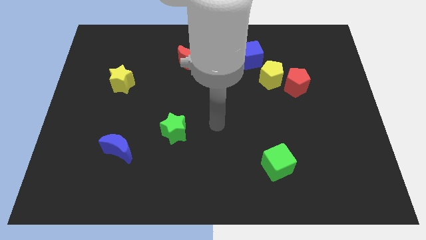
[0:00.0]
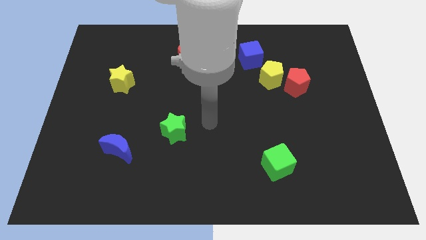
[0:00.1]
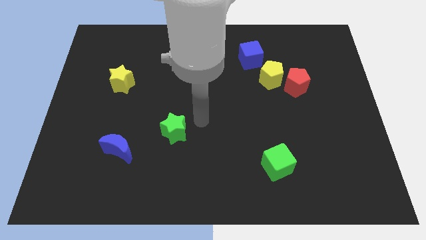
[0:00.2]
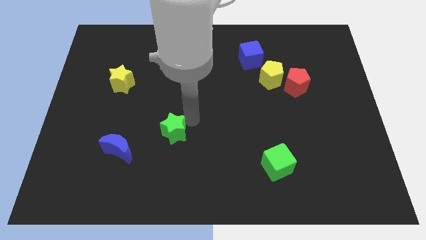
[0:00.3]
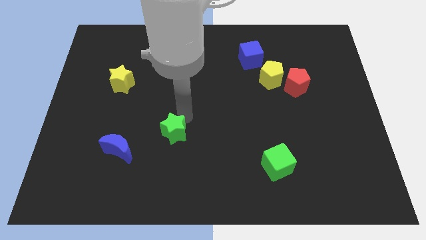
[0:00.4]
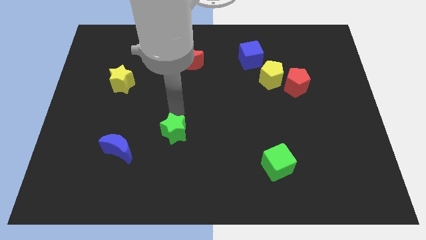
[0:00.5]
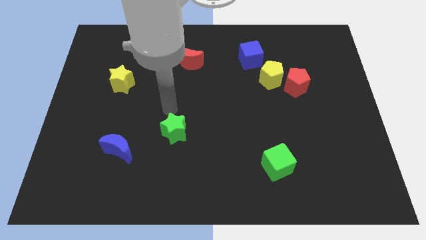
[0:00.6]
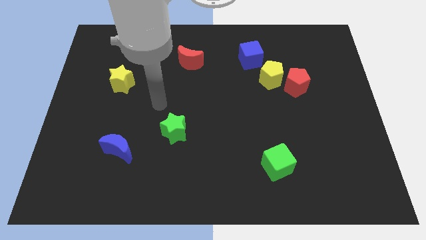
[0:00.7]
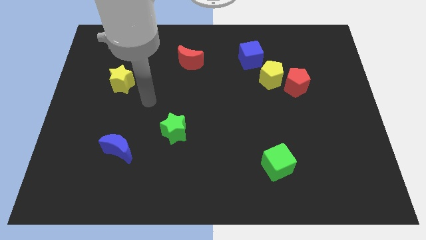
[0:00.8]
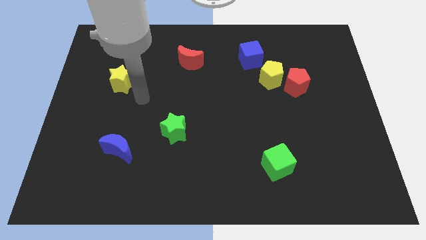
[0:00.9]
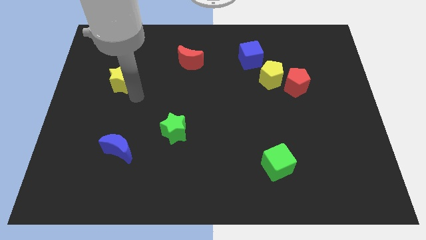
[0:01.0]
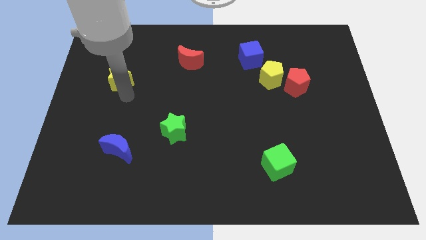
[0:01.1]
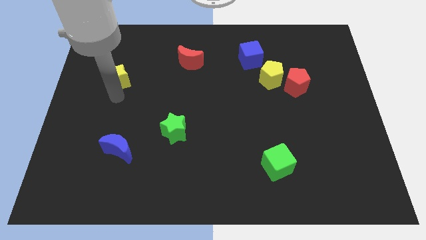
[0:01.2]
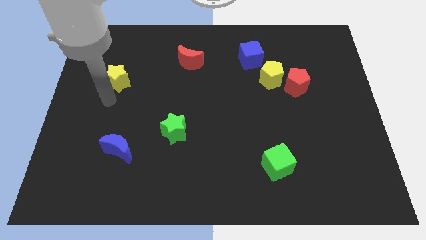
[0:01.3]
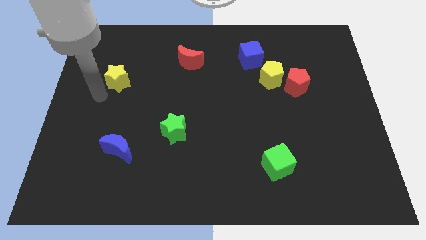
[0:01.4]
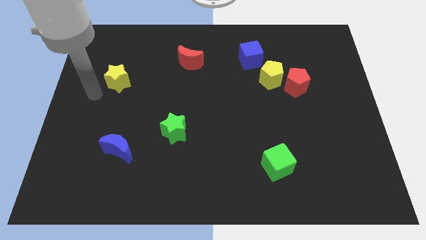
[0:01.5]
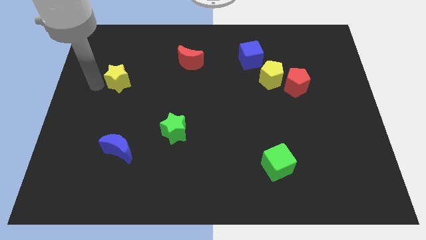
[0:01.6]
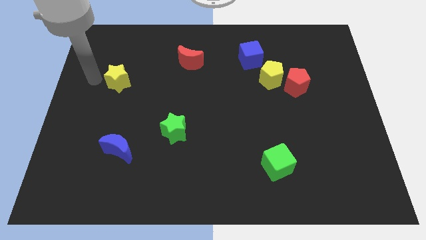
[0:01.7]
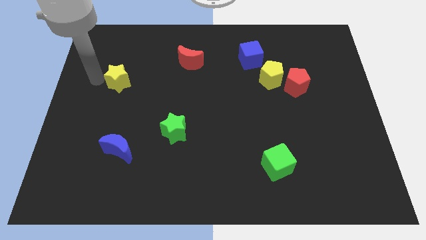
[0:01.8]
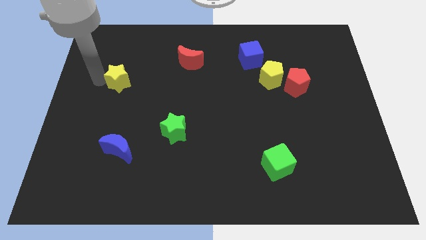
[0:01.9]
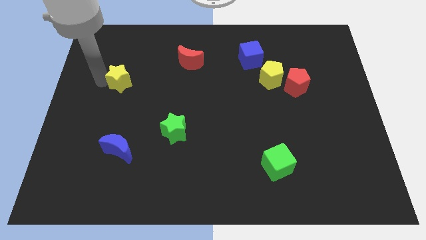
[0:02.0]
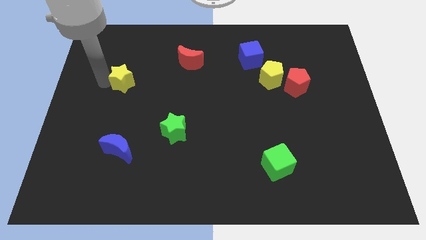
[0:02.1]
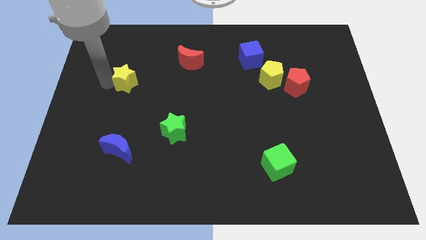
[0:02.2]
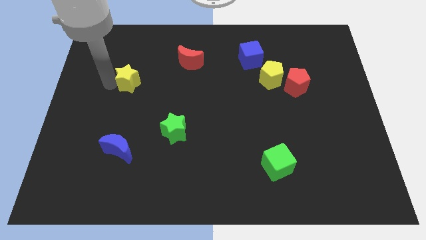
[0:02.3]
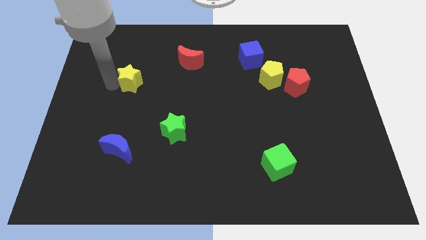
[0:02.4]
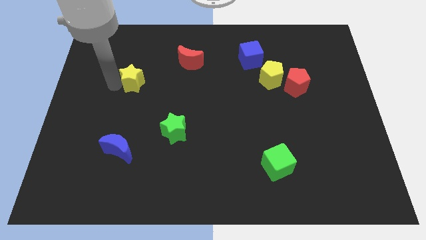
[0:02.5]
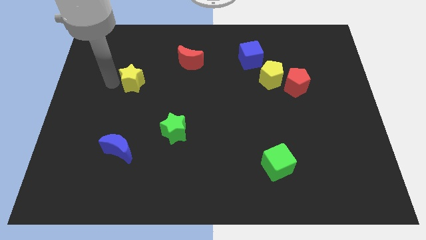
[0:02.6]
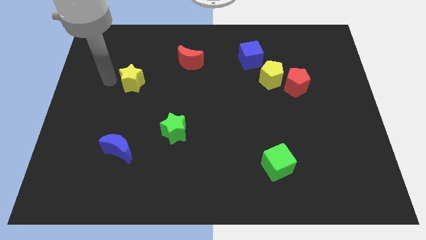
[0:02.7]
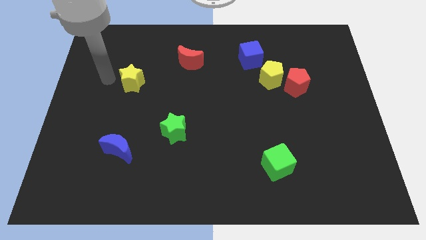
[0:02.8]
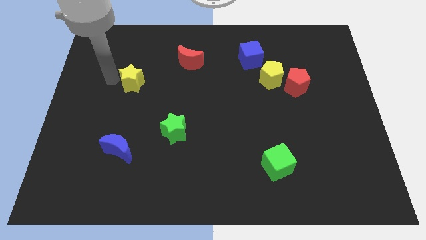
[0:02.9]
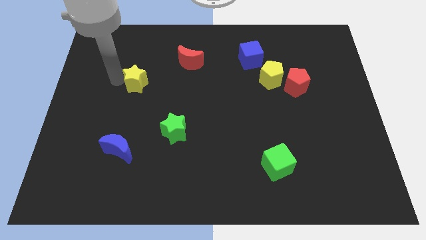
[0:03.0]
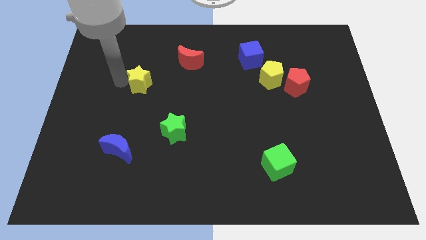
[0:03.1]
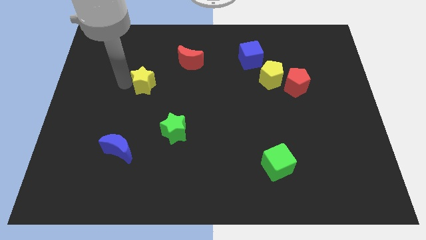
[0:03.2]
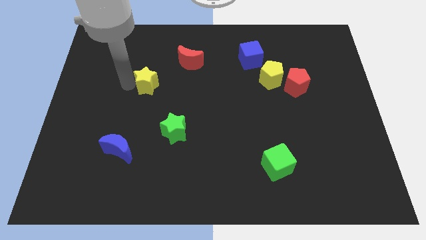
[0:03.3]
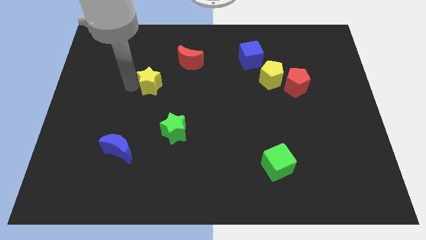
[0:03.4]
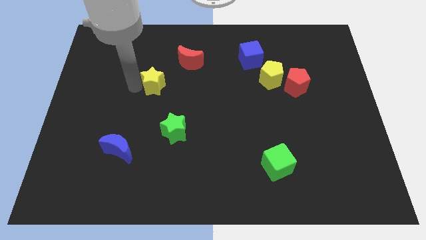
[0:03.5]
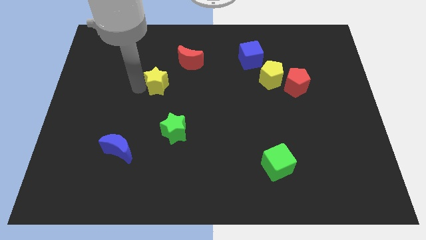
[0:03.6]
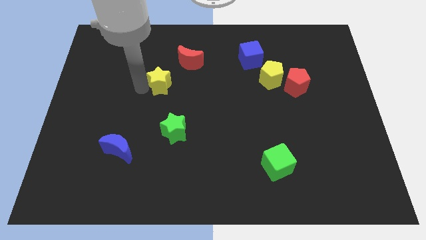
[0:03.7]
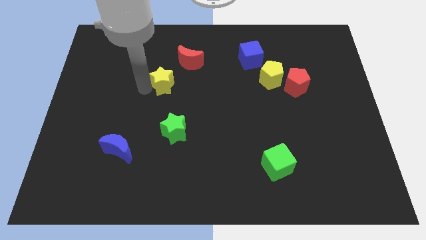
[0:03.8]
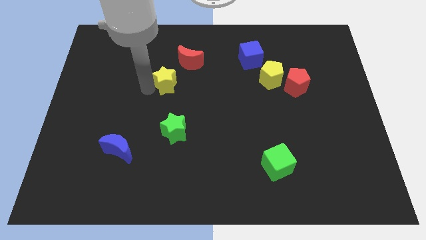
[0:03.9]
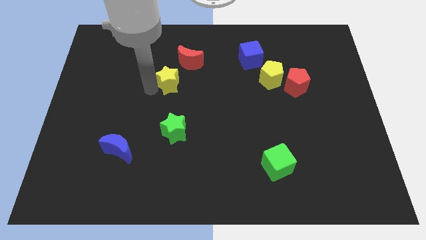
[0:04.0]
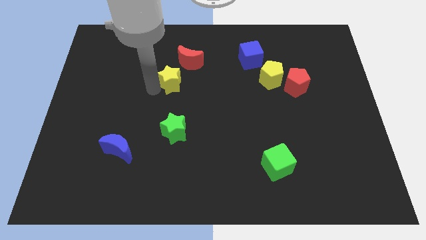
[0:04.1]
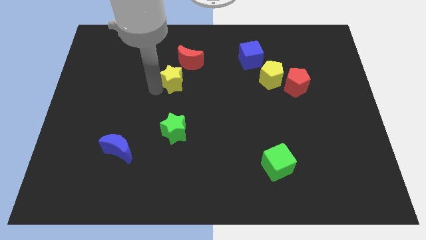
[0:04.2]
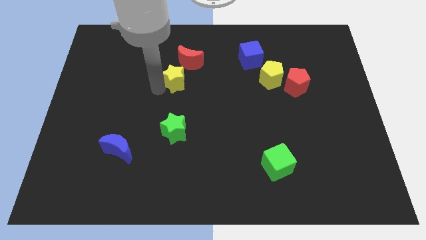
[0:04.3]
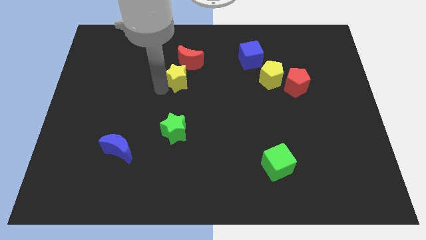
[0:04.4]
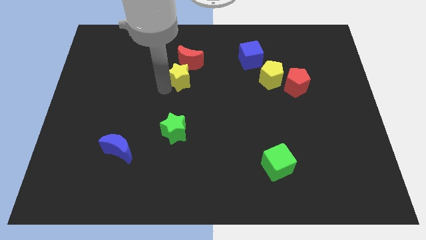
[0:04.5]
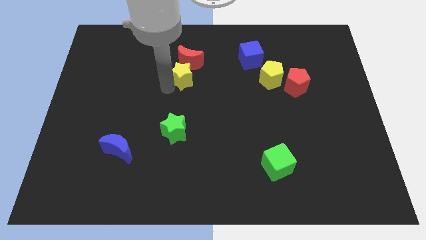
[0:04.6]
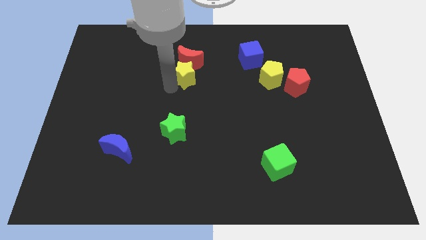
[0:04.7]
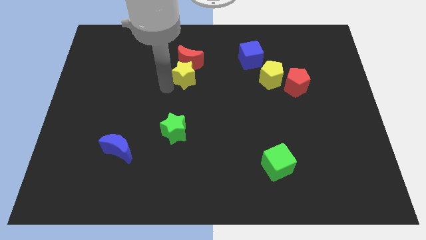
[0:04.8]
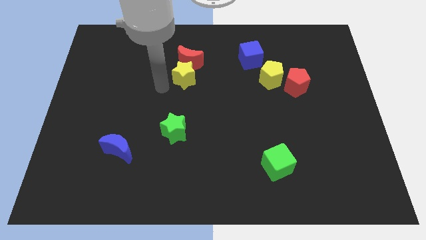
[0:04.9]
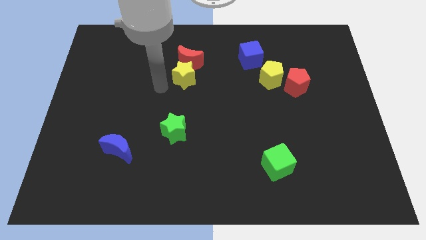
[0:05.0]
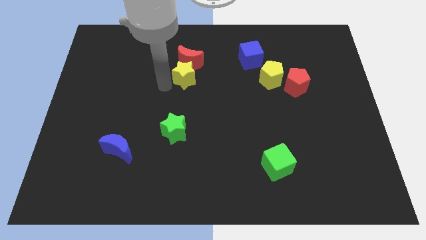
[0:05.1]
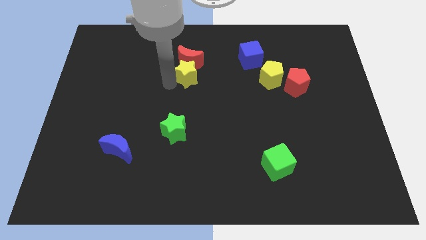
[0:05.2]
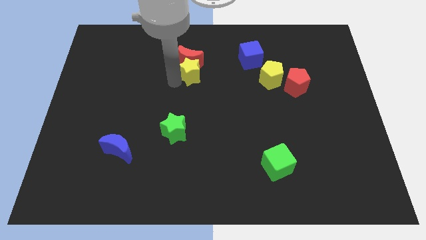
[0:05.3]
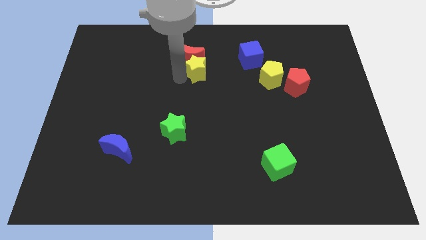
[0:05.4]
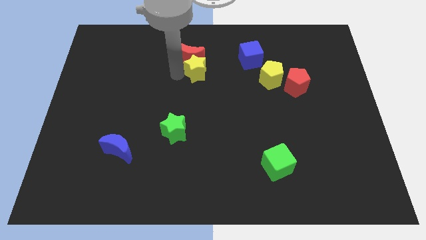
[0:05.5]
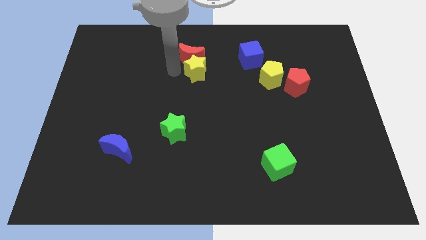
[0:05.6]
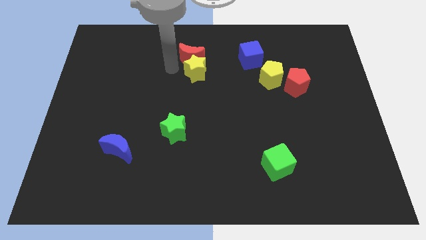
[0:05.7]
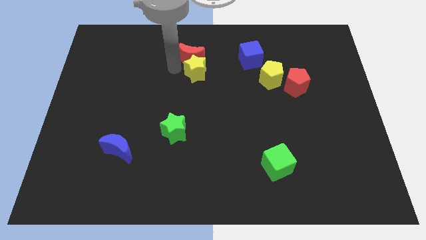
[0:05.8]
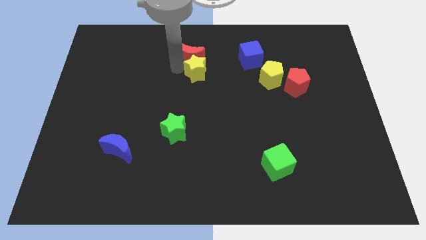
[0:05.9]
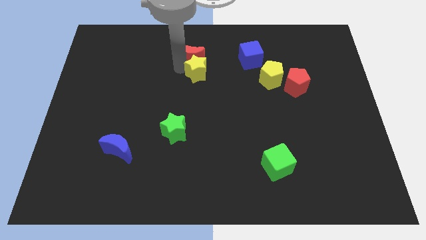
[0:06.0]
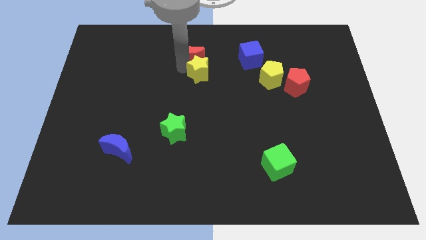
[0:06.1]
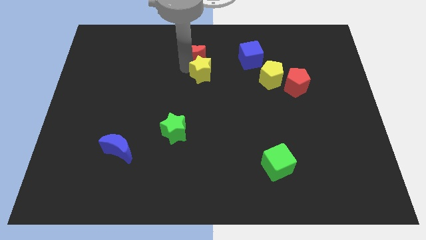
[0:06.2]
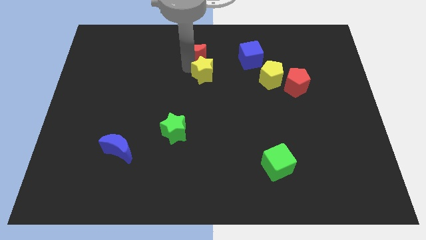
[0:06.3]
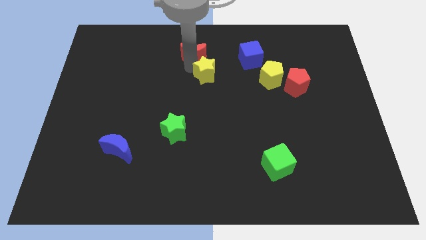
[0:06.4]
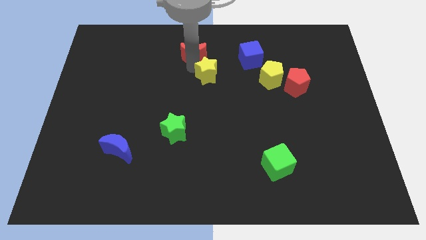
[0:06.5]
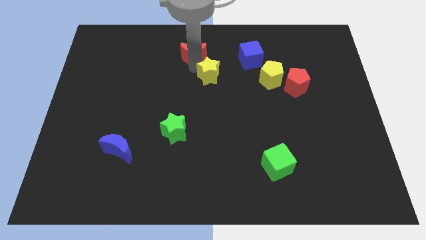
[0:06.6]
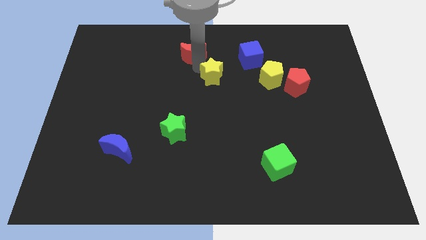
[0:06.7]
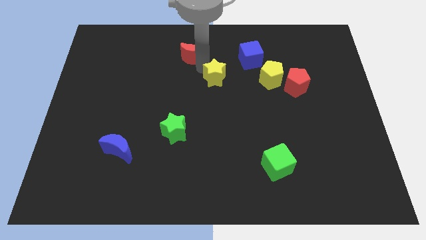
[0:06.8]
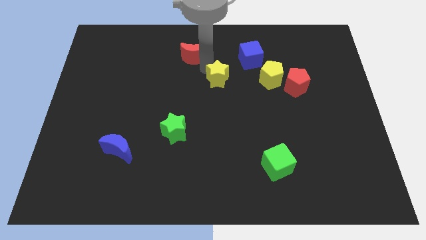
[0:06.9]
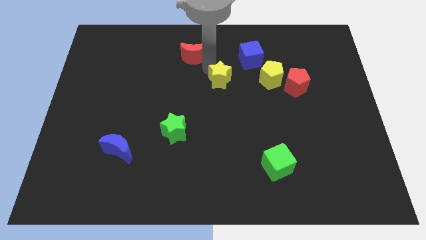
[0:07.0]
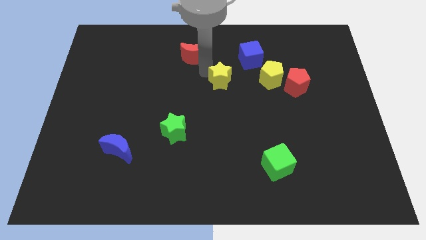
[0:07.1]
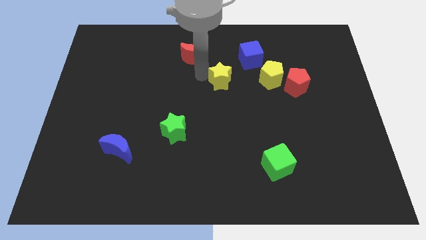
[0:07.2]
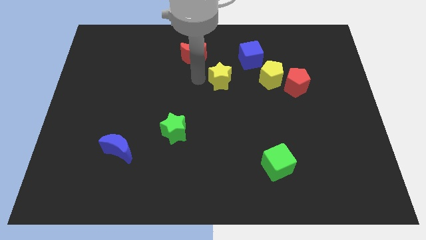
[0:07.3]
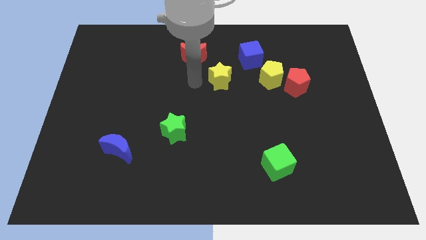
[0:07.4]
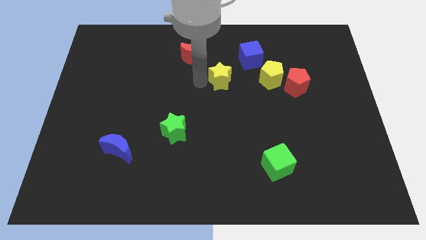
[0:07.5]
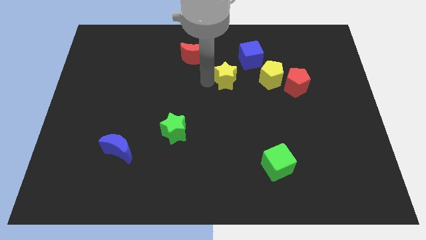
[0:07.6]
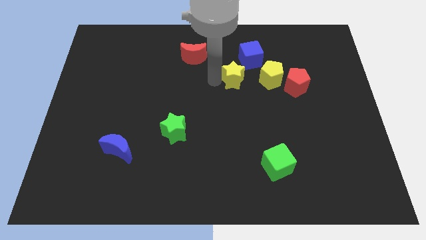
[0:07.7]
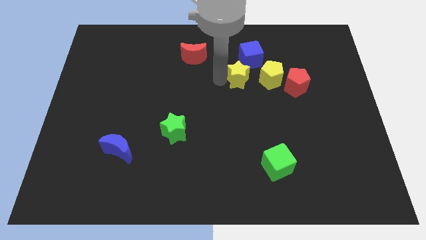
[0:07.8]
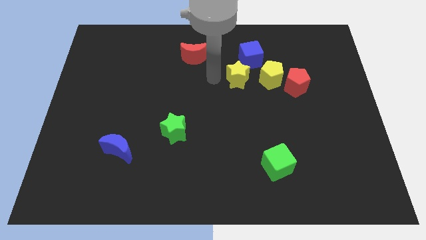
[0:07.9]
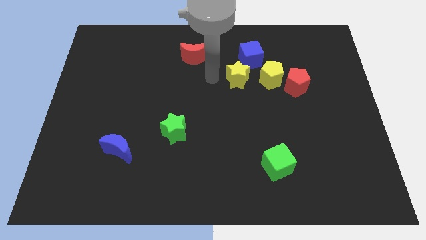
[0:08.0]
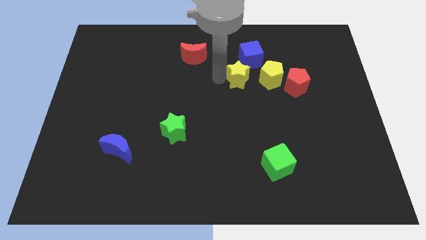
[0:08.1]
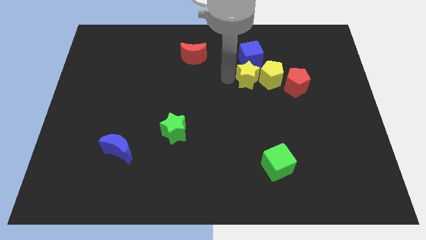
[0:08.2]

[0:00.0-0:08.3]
push the yellow star towards the yellow pentagon
